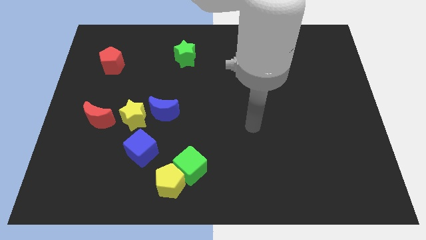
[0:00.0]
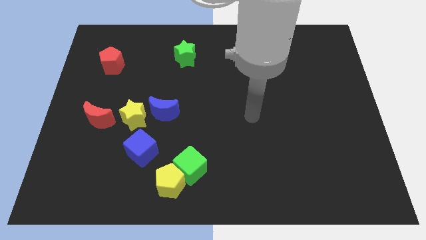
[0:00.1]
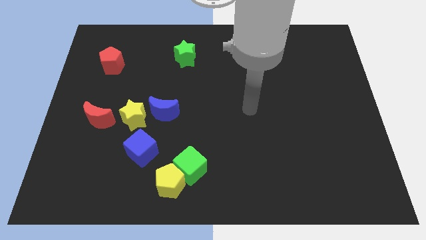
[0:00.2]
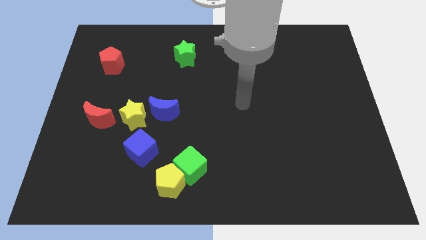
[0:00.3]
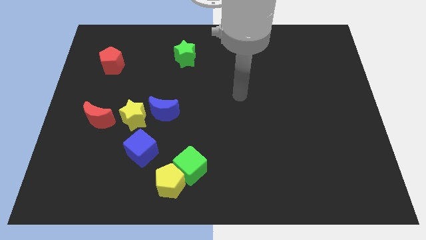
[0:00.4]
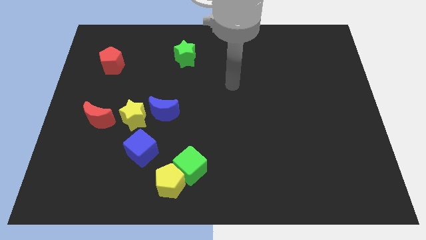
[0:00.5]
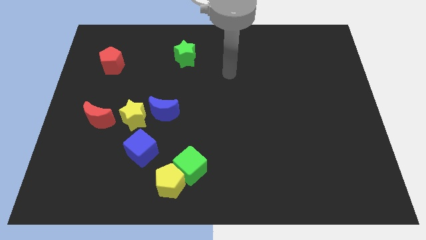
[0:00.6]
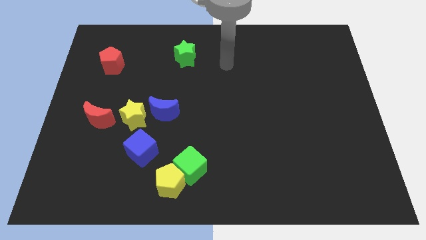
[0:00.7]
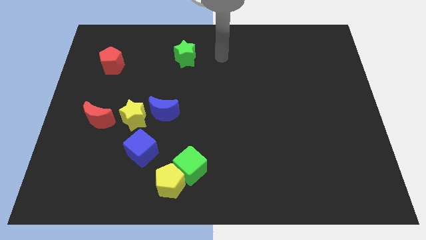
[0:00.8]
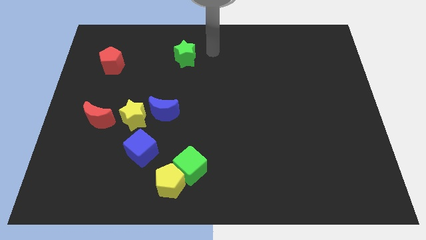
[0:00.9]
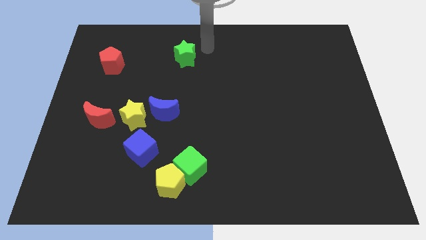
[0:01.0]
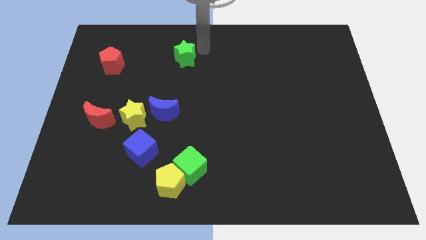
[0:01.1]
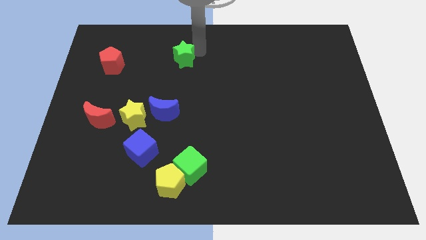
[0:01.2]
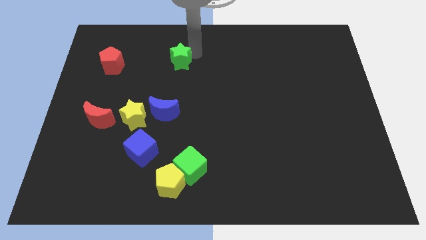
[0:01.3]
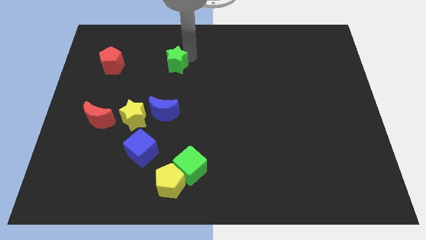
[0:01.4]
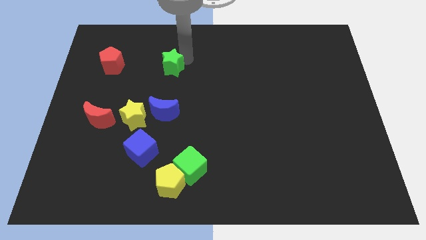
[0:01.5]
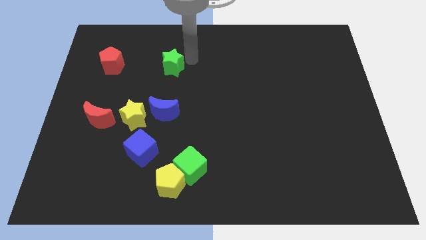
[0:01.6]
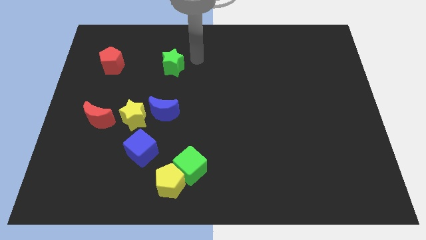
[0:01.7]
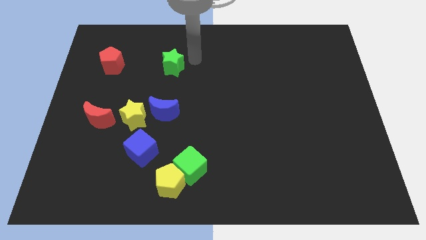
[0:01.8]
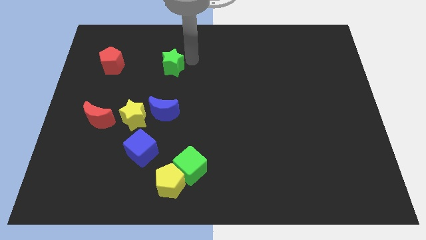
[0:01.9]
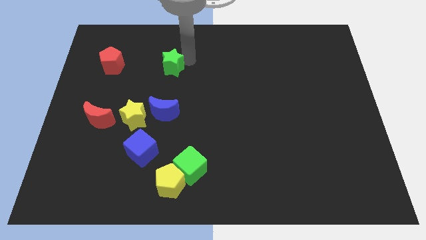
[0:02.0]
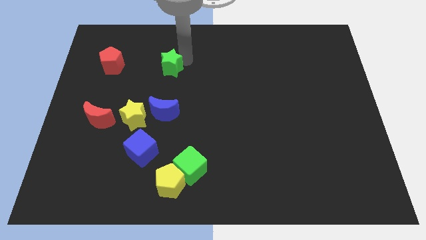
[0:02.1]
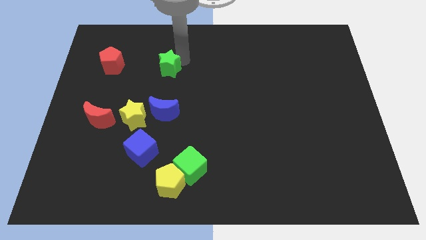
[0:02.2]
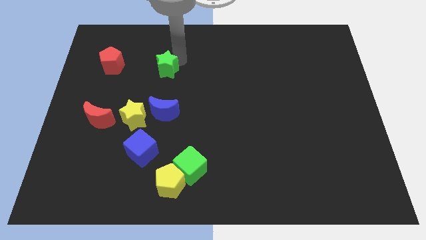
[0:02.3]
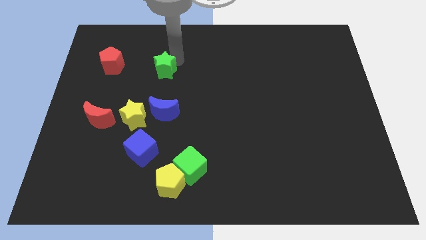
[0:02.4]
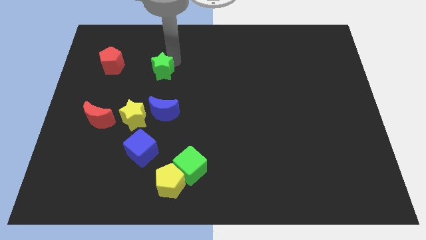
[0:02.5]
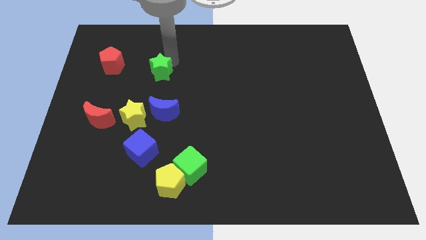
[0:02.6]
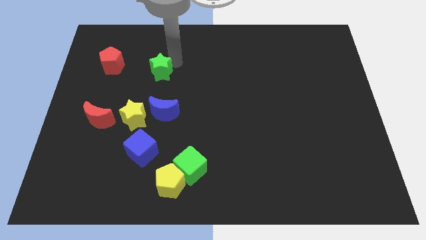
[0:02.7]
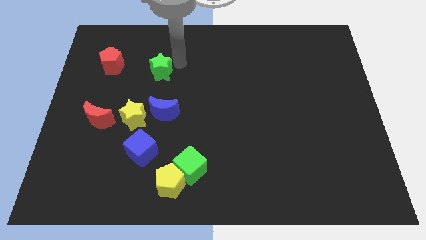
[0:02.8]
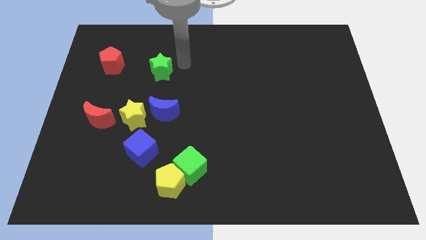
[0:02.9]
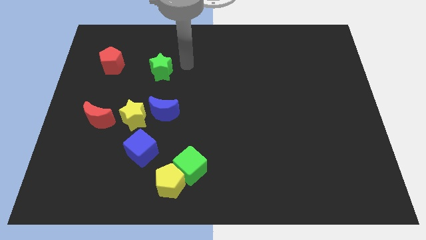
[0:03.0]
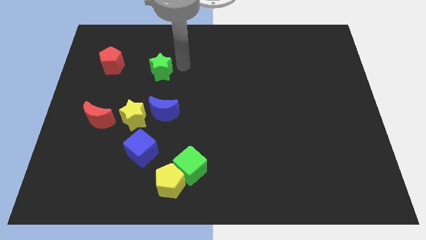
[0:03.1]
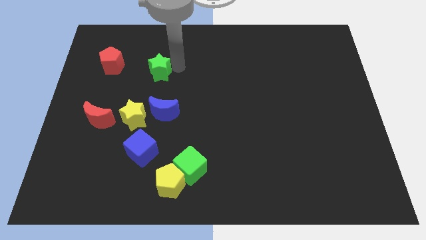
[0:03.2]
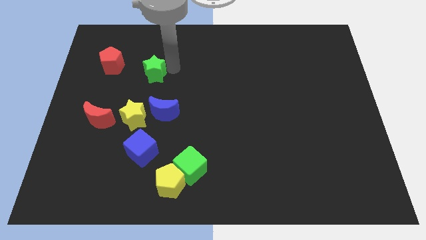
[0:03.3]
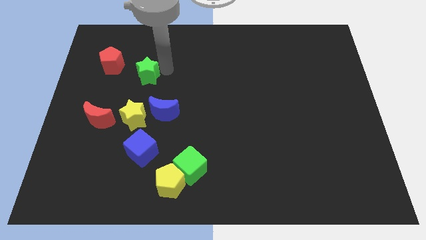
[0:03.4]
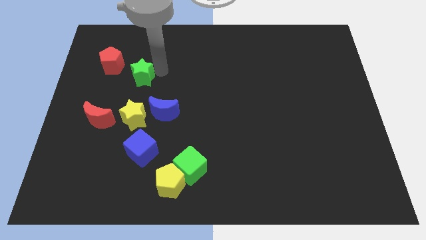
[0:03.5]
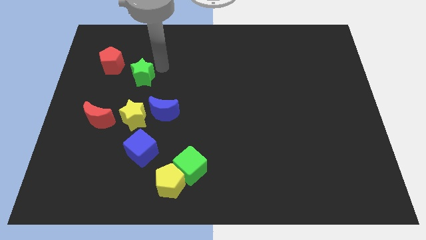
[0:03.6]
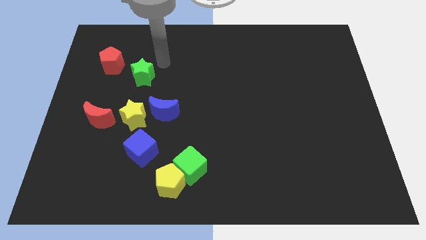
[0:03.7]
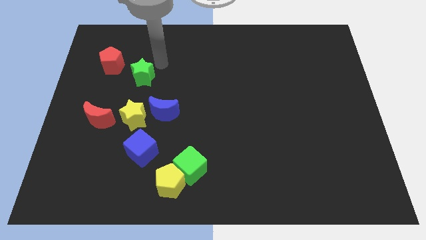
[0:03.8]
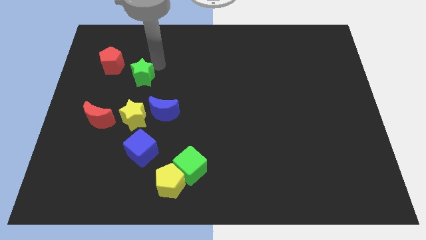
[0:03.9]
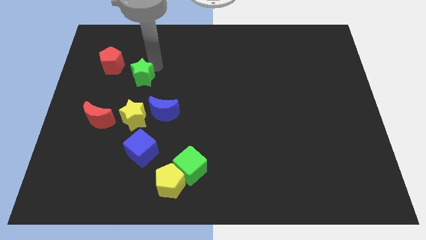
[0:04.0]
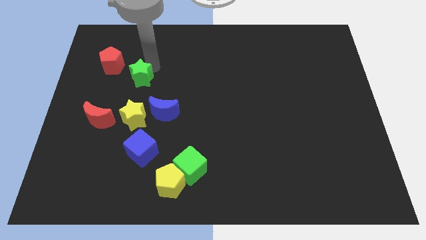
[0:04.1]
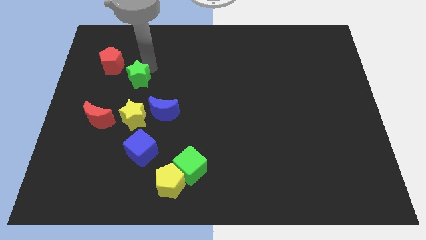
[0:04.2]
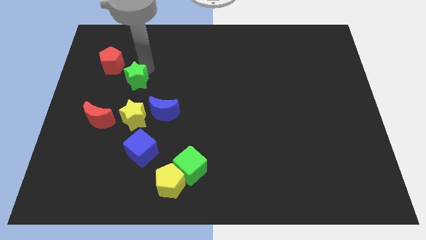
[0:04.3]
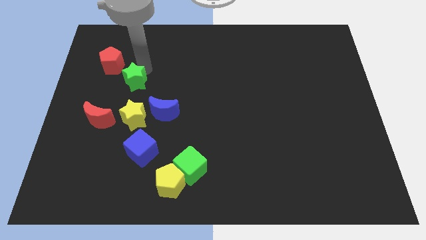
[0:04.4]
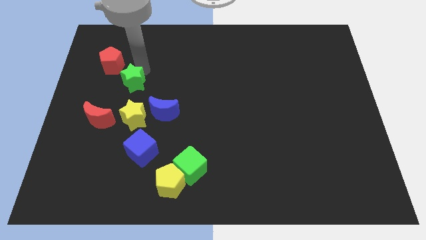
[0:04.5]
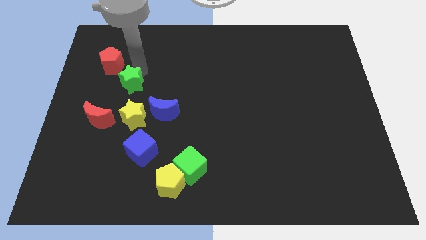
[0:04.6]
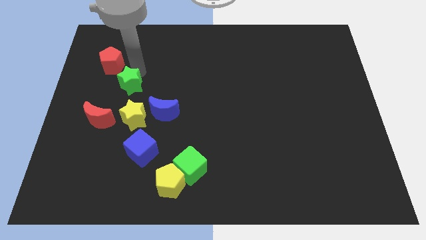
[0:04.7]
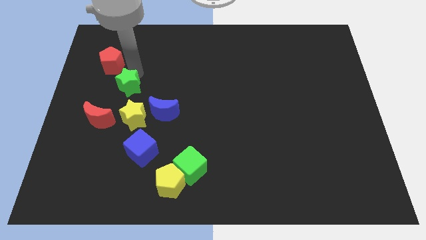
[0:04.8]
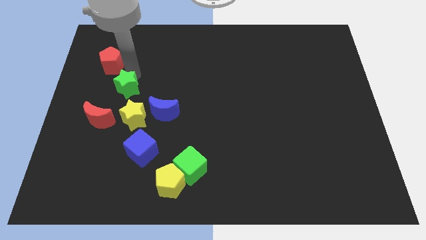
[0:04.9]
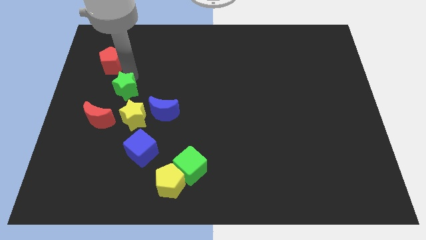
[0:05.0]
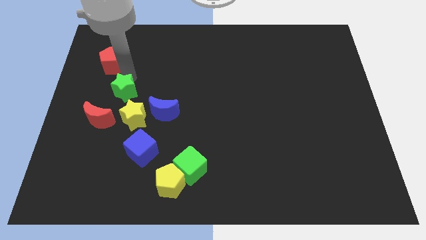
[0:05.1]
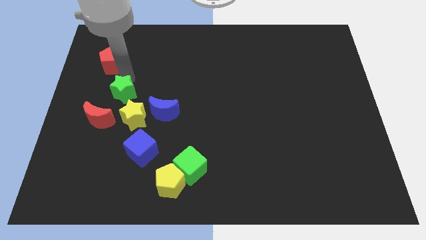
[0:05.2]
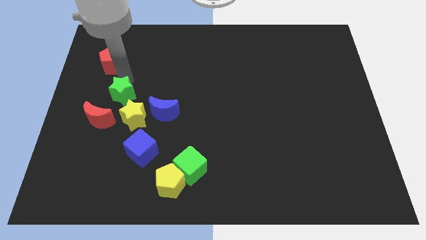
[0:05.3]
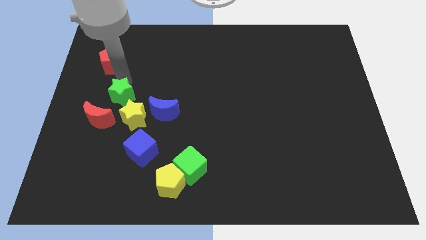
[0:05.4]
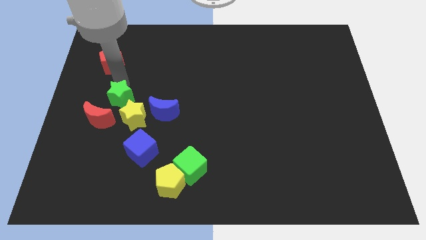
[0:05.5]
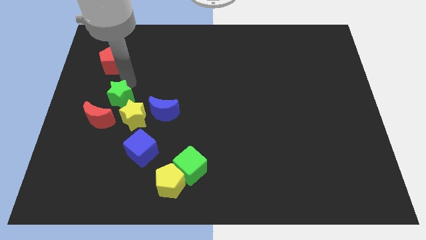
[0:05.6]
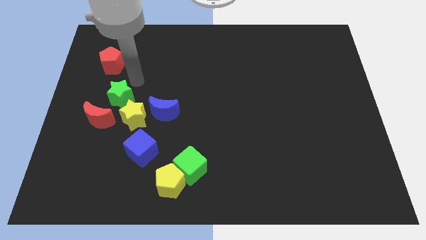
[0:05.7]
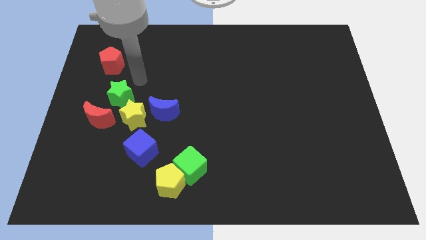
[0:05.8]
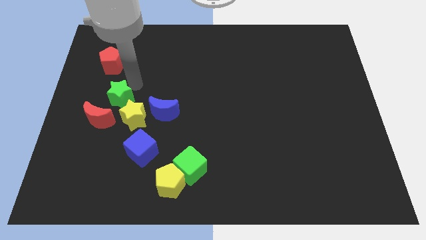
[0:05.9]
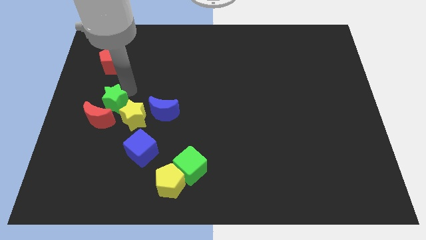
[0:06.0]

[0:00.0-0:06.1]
push the green star towards the red moon

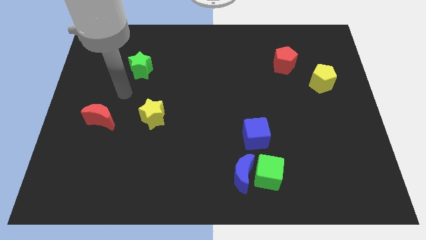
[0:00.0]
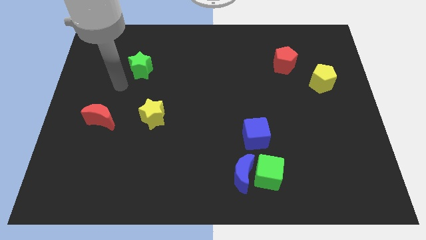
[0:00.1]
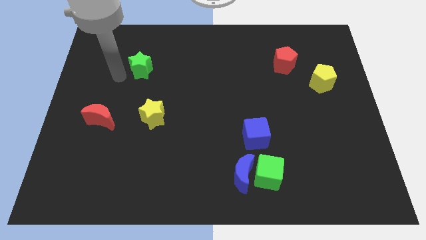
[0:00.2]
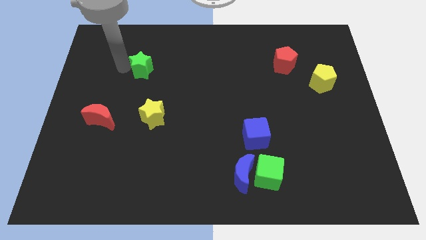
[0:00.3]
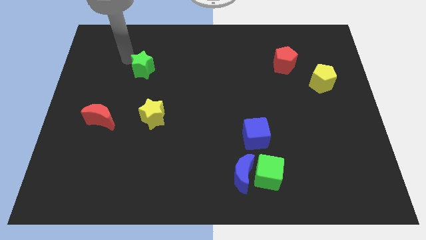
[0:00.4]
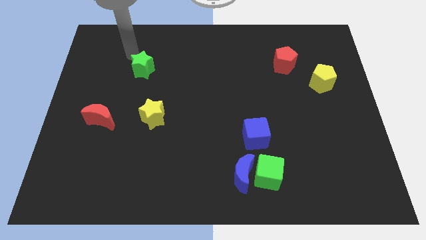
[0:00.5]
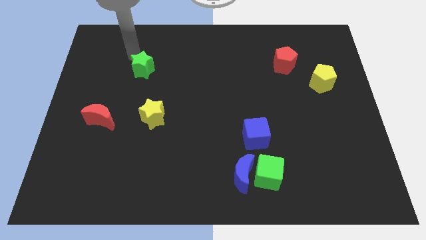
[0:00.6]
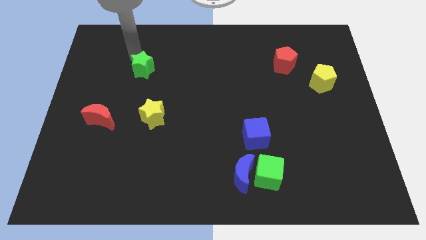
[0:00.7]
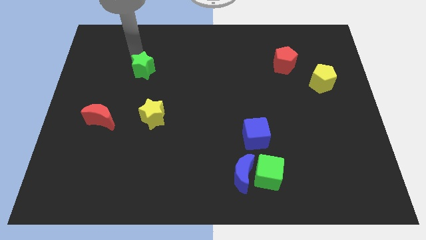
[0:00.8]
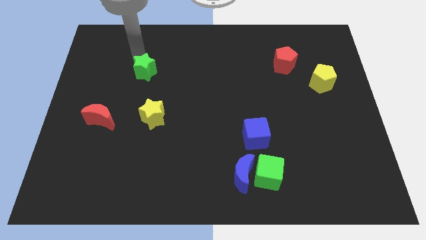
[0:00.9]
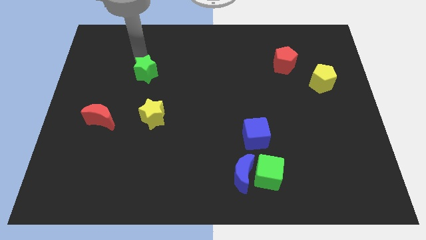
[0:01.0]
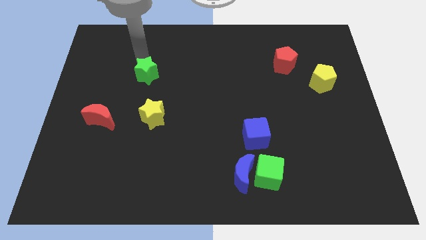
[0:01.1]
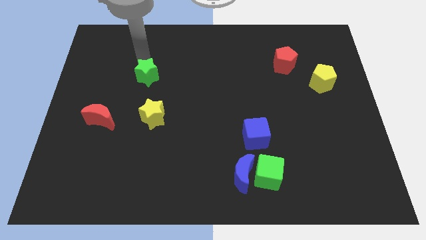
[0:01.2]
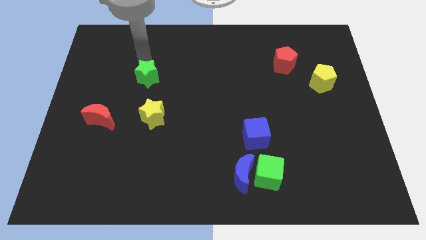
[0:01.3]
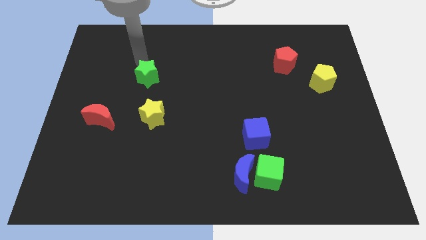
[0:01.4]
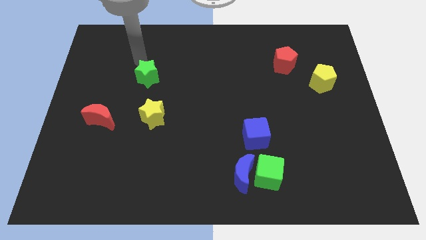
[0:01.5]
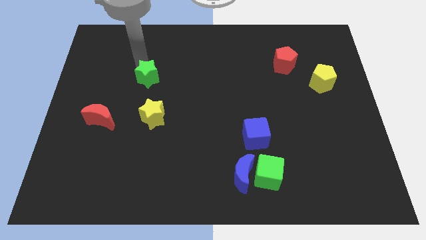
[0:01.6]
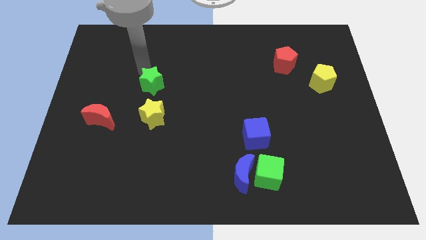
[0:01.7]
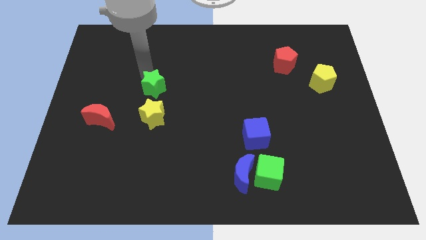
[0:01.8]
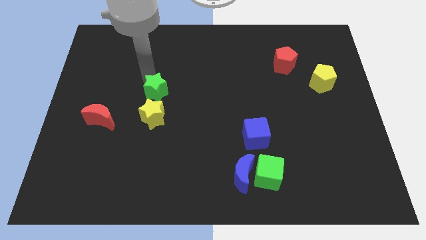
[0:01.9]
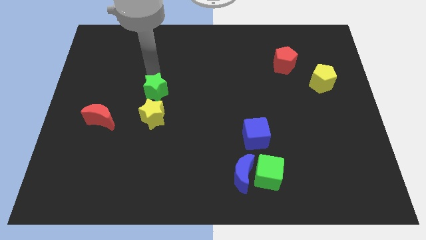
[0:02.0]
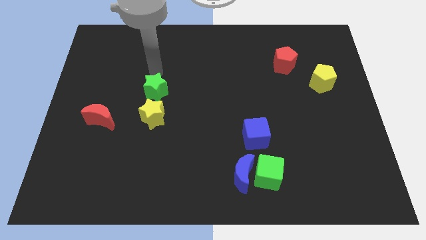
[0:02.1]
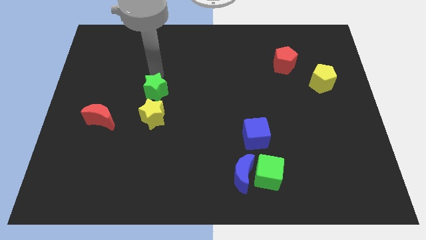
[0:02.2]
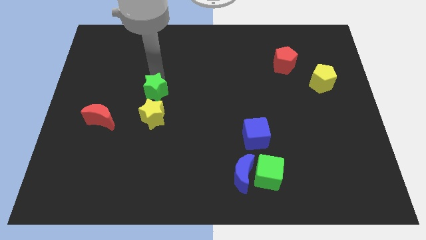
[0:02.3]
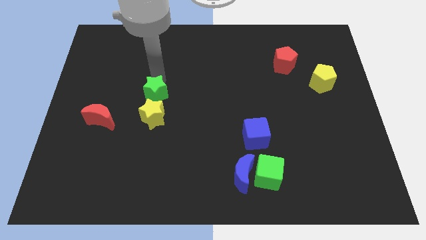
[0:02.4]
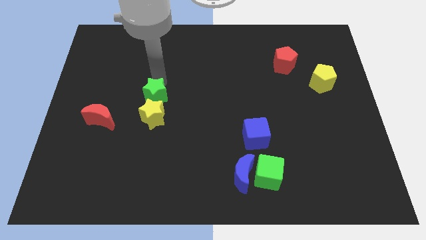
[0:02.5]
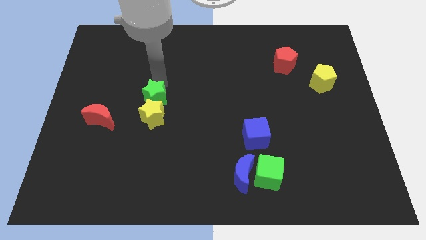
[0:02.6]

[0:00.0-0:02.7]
push the green star close to the yellow star
